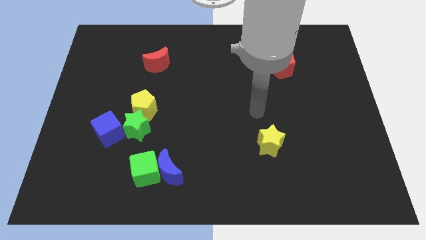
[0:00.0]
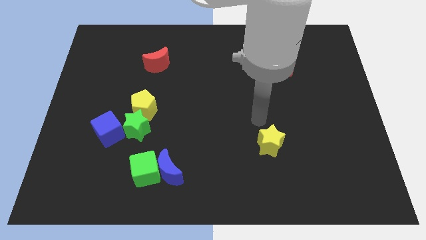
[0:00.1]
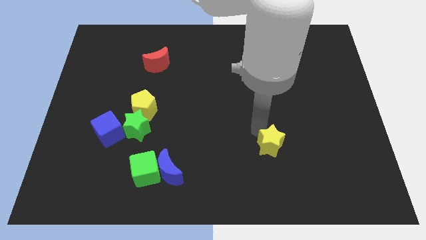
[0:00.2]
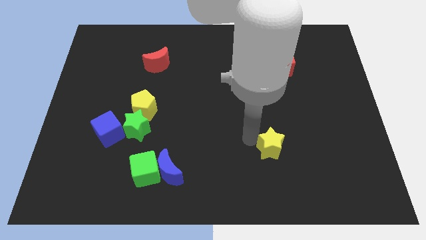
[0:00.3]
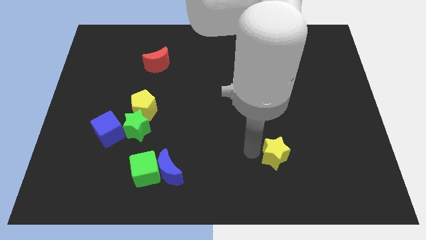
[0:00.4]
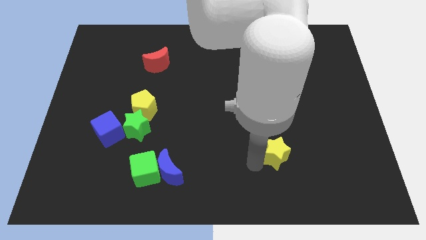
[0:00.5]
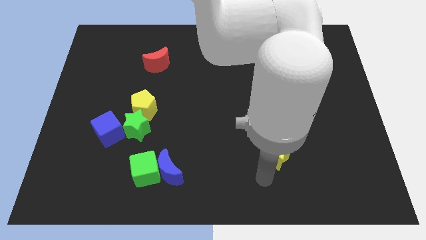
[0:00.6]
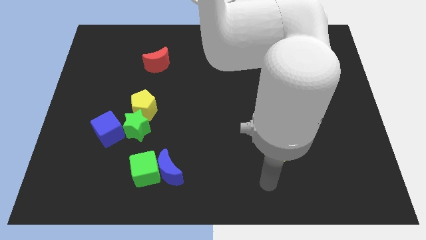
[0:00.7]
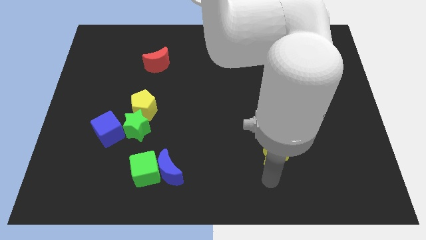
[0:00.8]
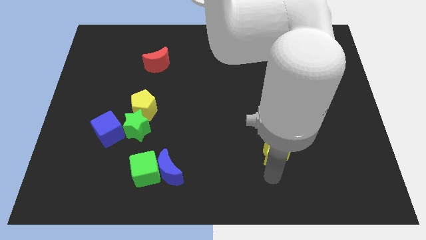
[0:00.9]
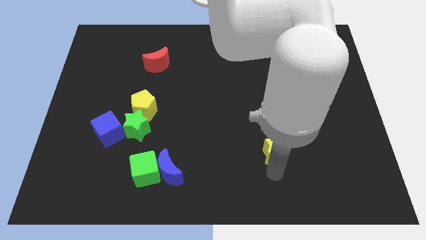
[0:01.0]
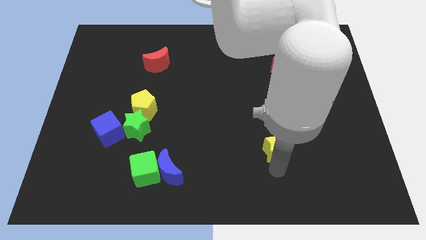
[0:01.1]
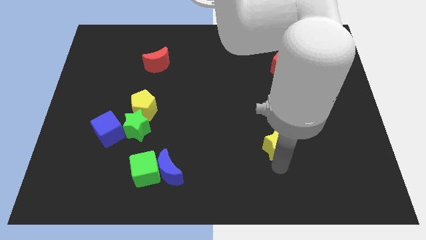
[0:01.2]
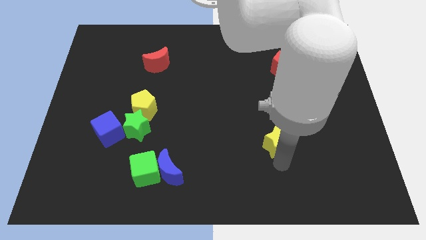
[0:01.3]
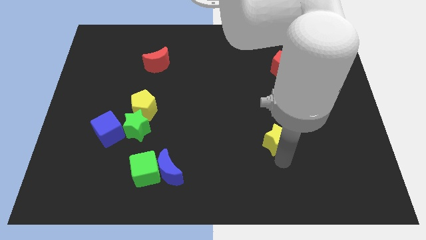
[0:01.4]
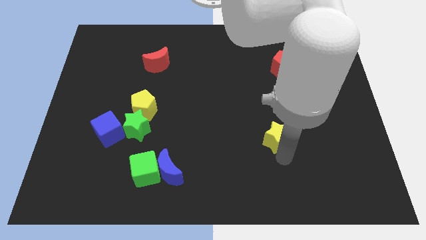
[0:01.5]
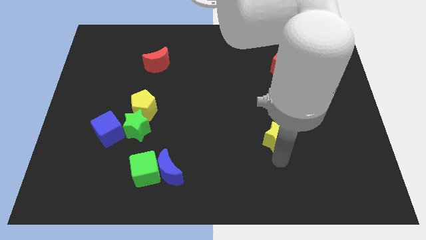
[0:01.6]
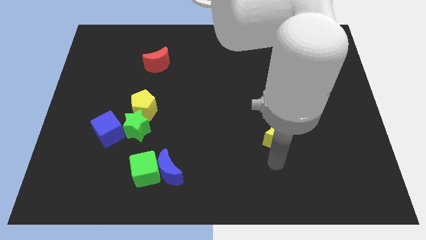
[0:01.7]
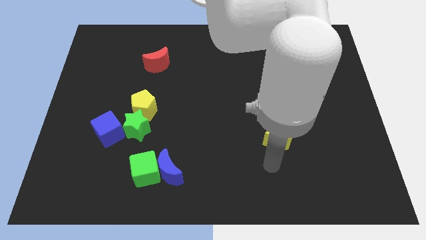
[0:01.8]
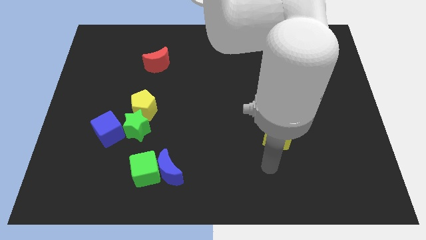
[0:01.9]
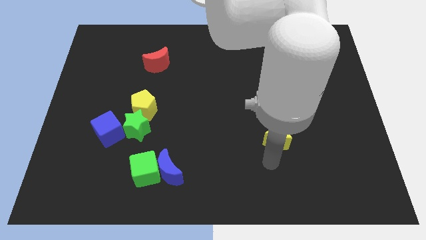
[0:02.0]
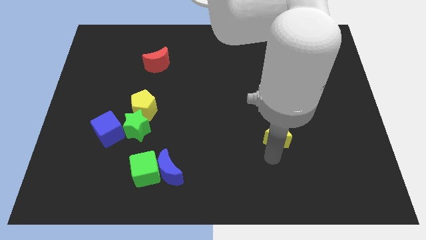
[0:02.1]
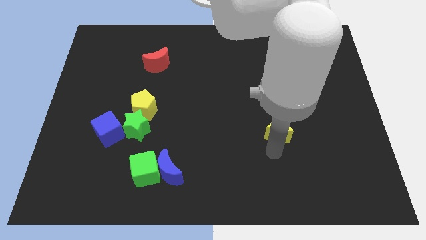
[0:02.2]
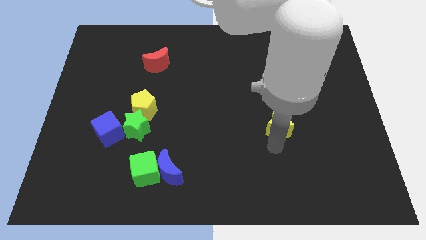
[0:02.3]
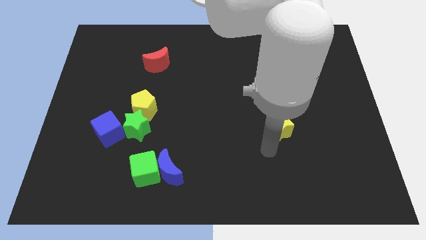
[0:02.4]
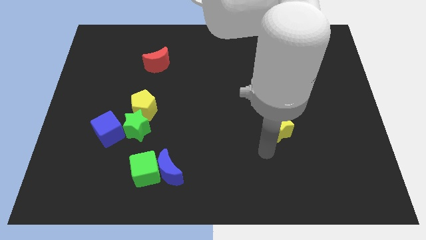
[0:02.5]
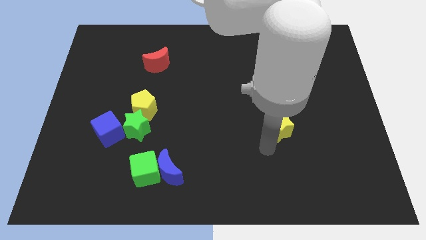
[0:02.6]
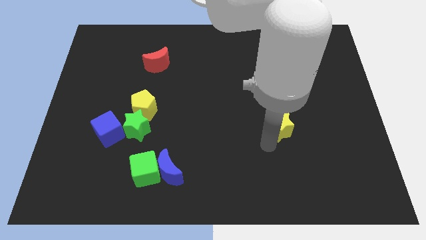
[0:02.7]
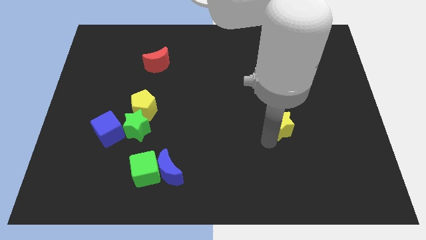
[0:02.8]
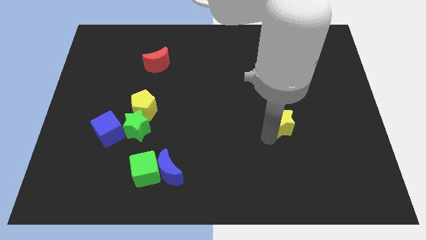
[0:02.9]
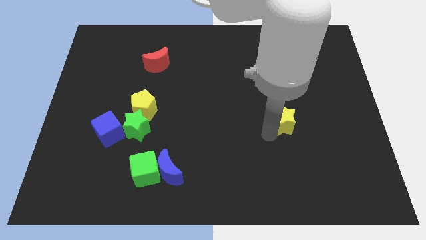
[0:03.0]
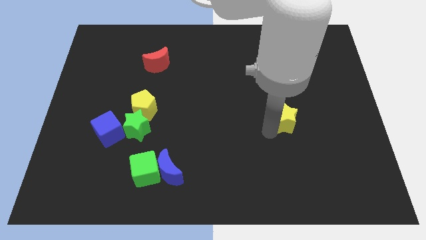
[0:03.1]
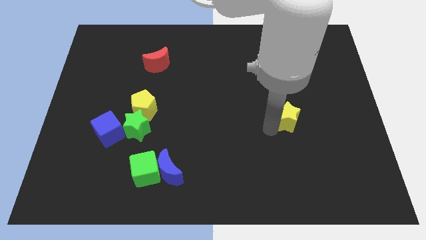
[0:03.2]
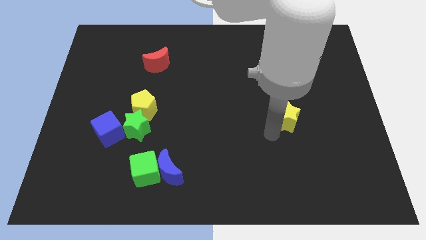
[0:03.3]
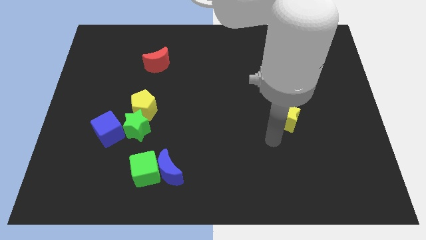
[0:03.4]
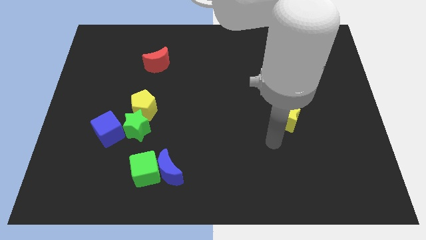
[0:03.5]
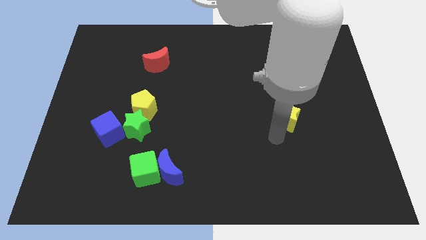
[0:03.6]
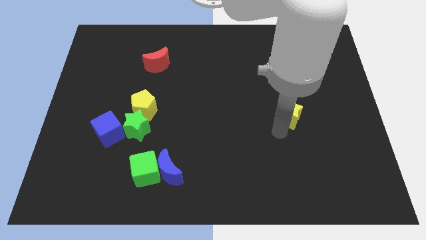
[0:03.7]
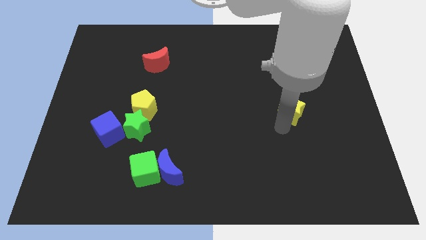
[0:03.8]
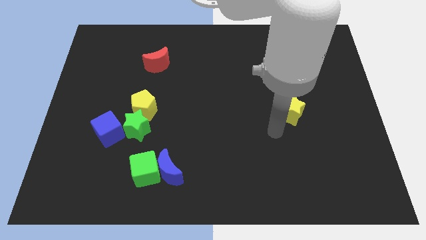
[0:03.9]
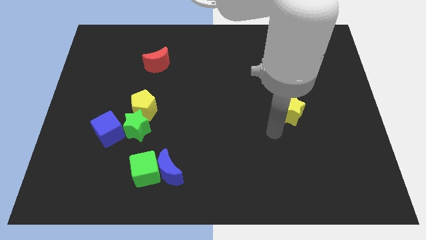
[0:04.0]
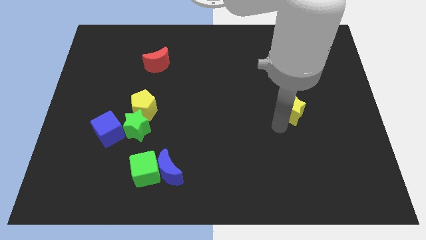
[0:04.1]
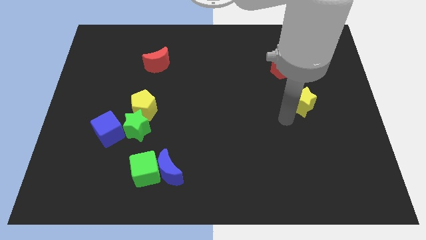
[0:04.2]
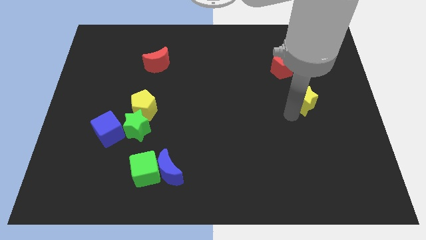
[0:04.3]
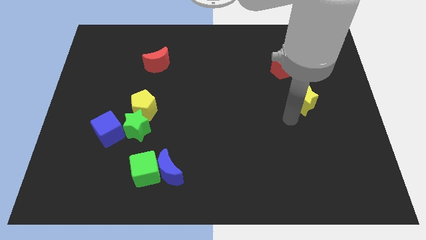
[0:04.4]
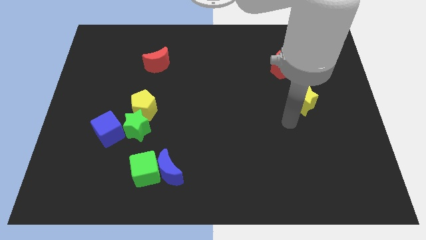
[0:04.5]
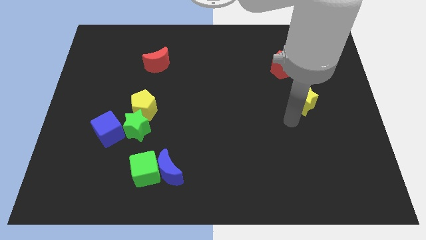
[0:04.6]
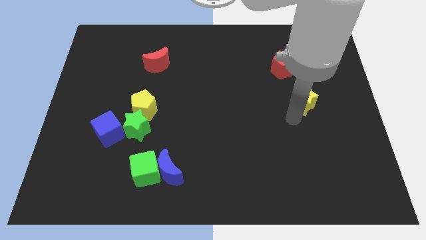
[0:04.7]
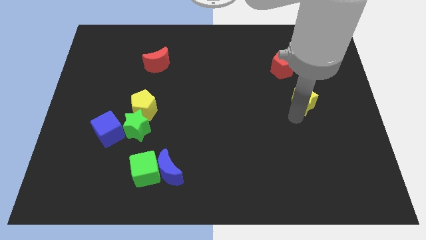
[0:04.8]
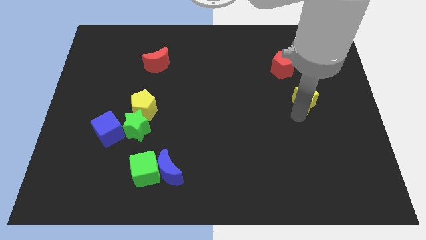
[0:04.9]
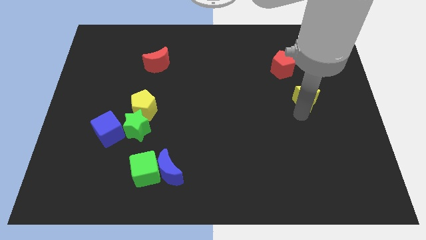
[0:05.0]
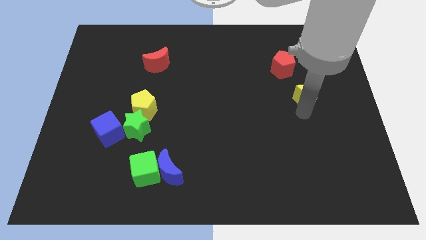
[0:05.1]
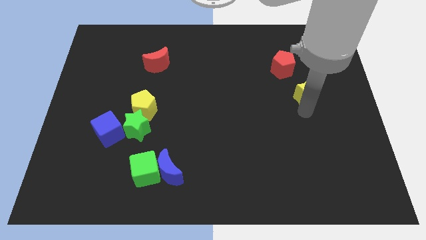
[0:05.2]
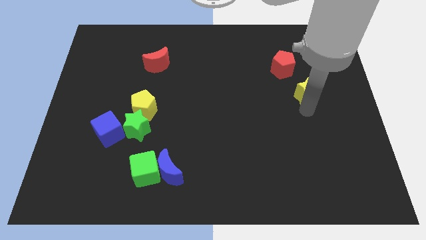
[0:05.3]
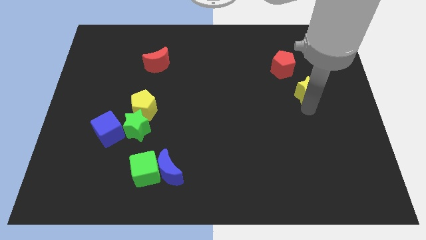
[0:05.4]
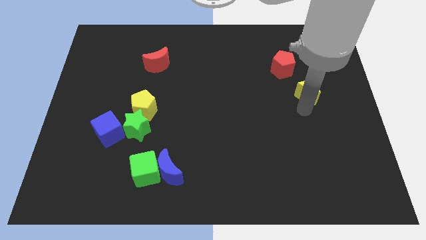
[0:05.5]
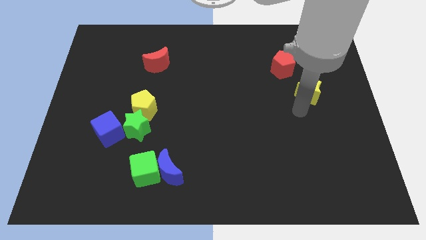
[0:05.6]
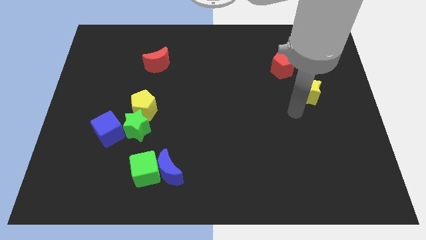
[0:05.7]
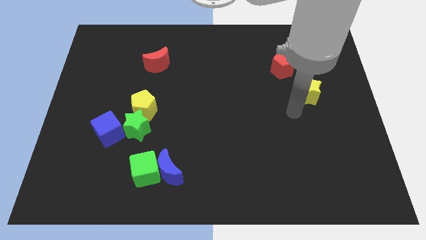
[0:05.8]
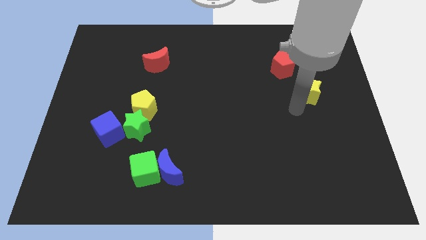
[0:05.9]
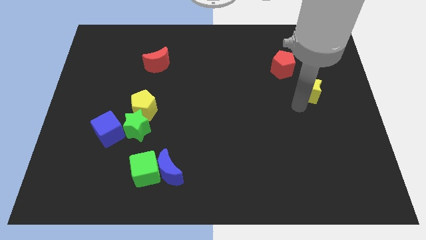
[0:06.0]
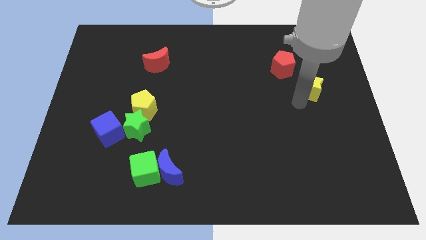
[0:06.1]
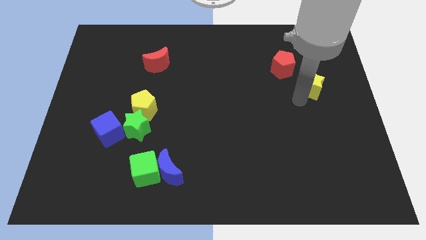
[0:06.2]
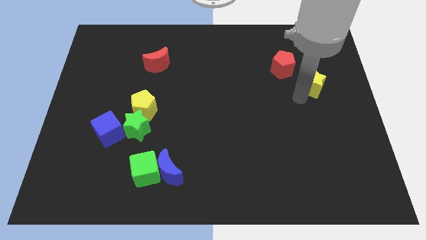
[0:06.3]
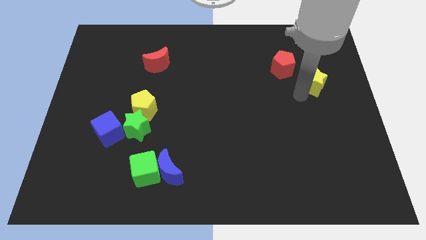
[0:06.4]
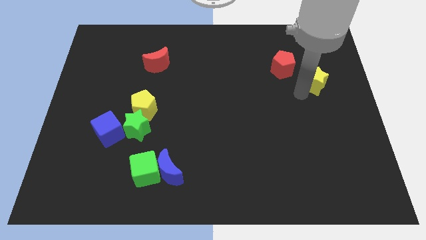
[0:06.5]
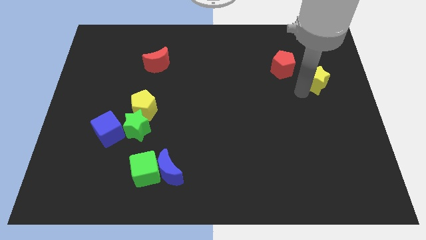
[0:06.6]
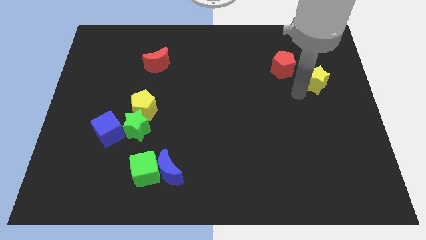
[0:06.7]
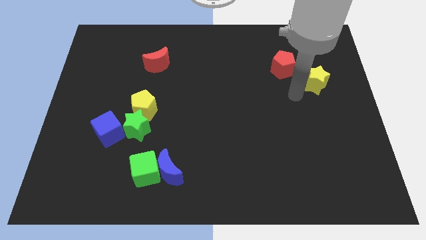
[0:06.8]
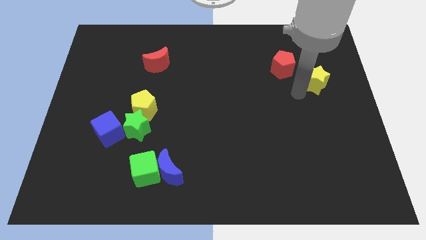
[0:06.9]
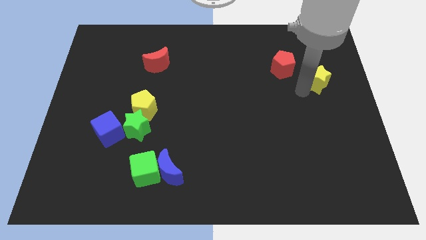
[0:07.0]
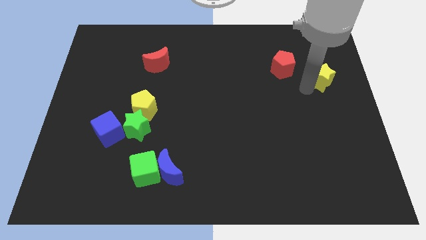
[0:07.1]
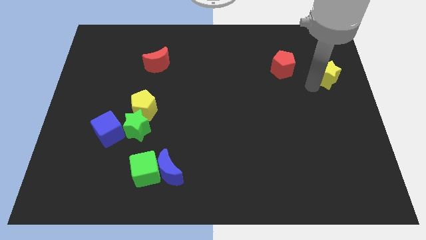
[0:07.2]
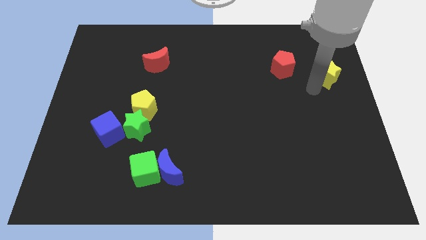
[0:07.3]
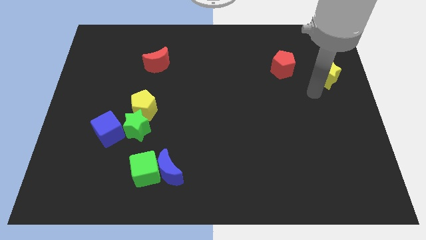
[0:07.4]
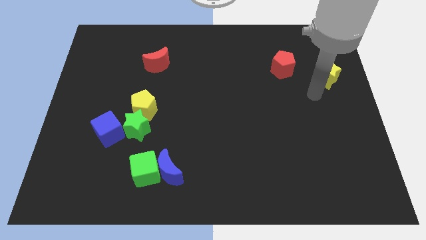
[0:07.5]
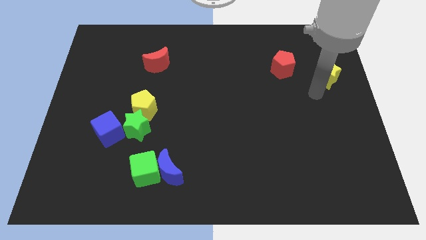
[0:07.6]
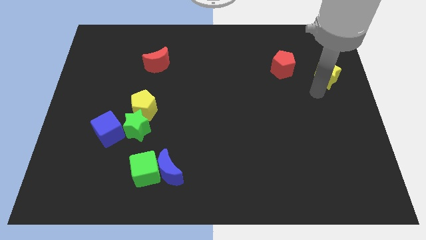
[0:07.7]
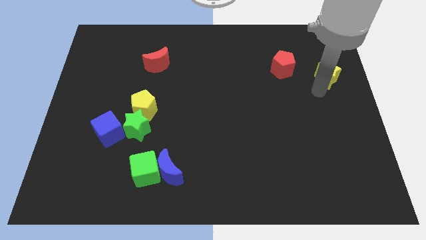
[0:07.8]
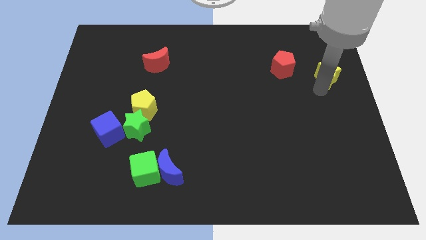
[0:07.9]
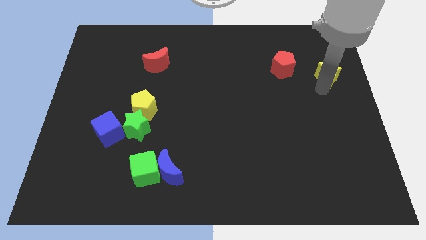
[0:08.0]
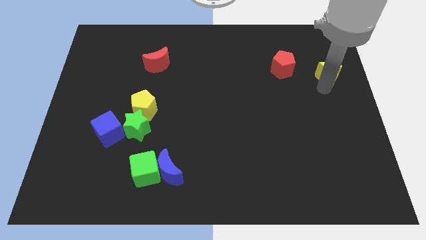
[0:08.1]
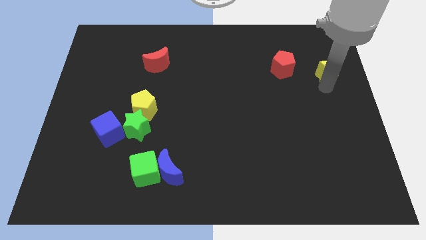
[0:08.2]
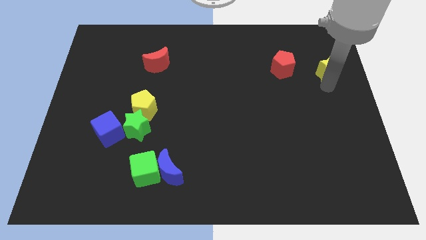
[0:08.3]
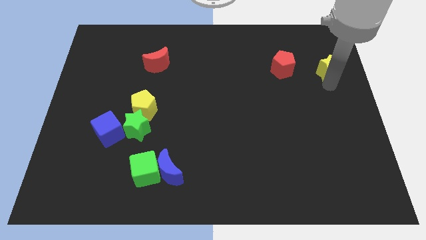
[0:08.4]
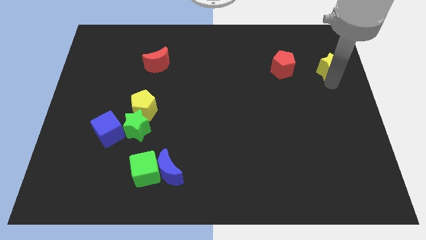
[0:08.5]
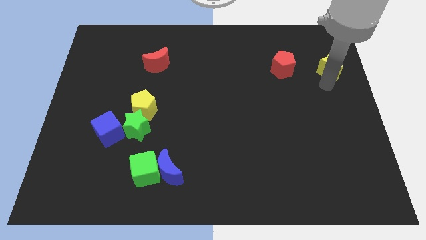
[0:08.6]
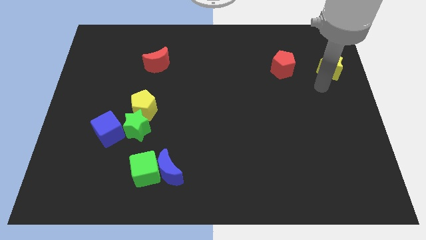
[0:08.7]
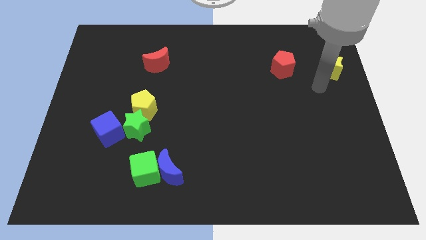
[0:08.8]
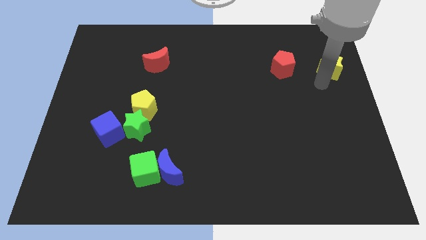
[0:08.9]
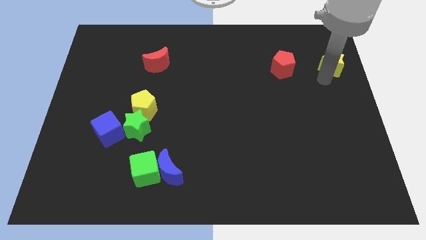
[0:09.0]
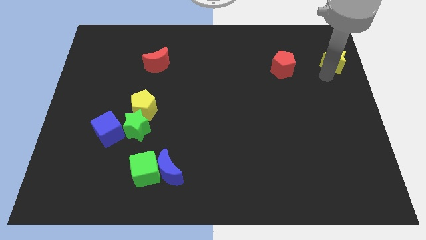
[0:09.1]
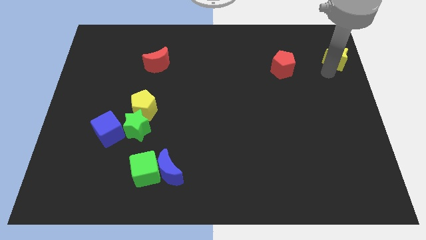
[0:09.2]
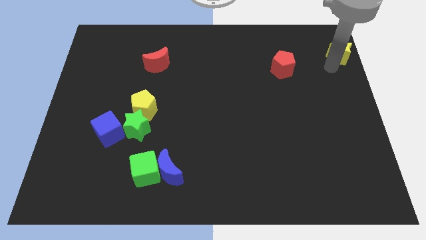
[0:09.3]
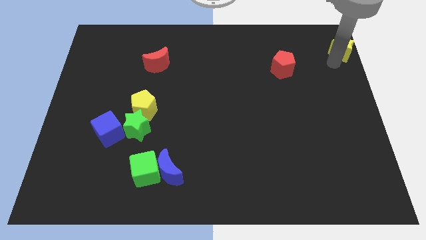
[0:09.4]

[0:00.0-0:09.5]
push the yellow star to the upper right corner
